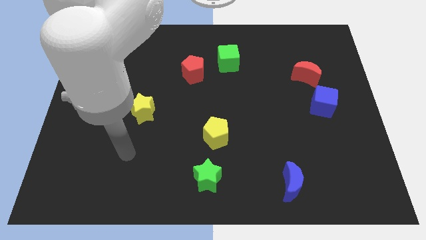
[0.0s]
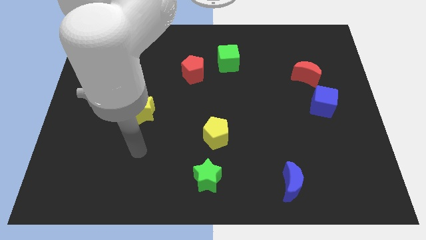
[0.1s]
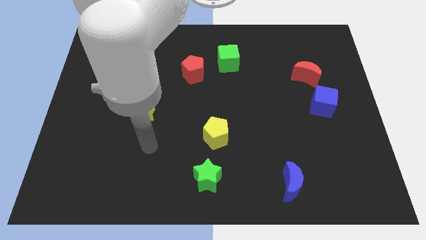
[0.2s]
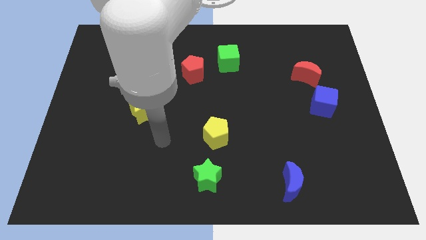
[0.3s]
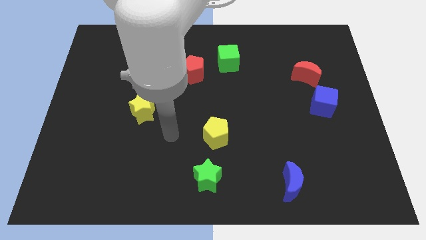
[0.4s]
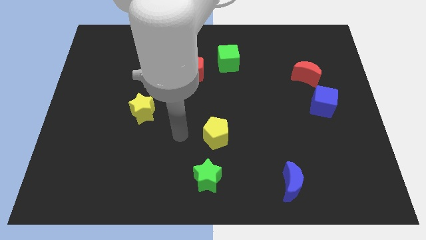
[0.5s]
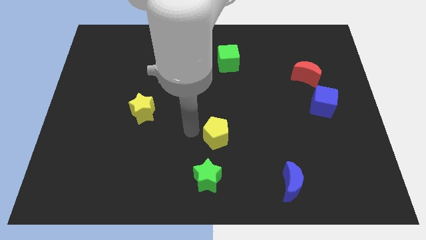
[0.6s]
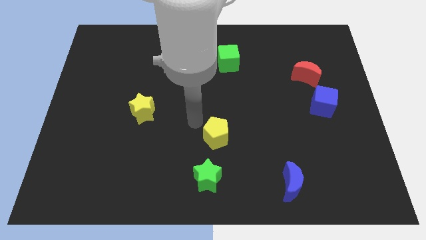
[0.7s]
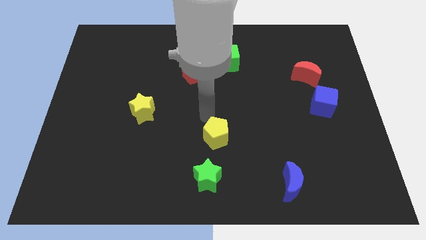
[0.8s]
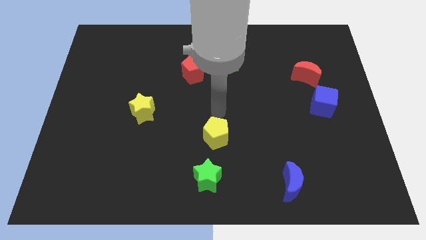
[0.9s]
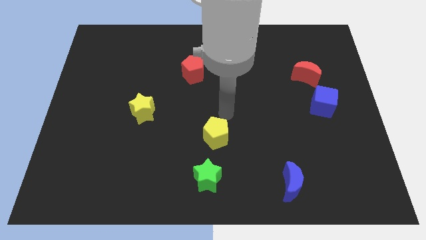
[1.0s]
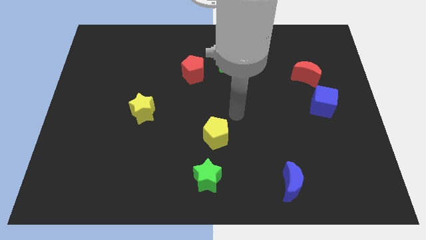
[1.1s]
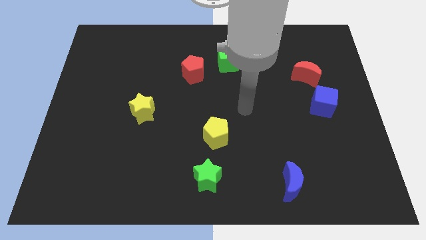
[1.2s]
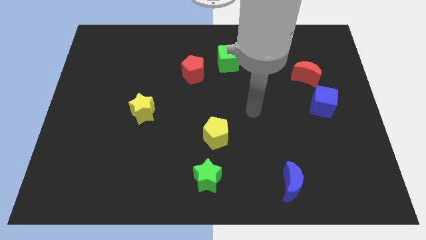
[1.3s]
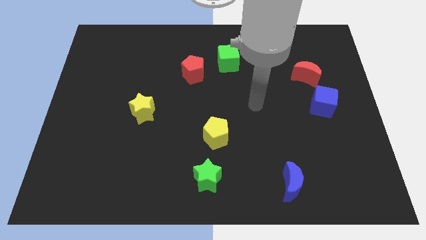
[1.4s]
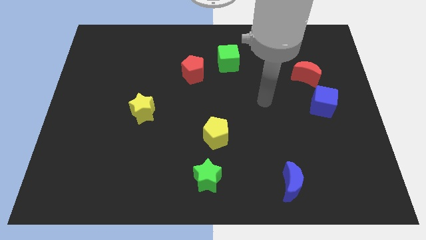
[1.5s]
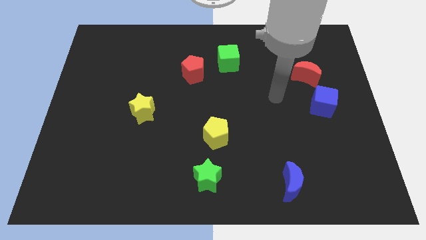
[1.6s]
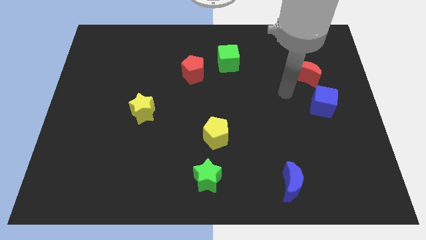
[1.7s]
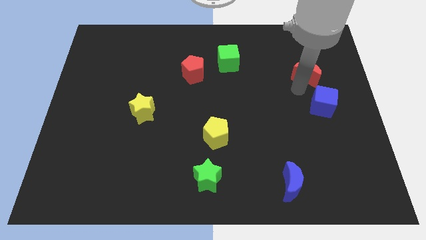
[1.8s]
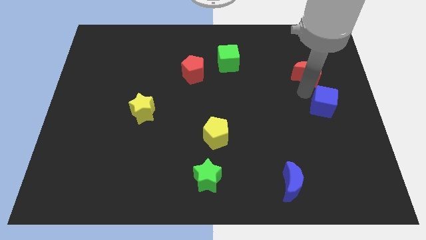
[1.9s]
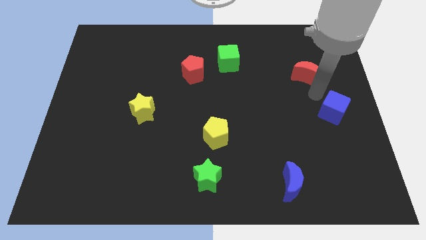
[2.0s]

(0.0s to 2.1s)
move the red moon away from the blue cube

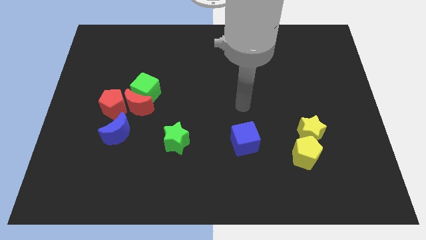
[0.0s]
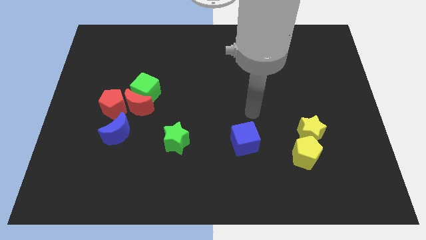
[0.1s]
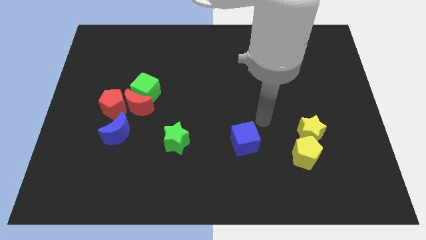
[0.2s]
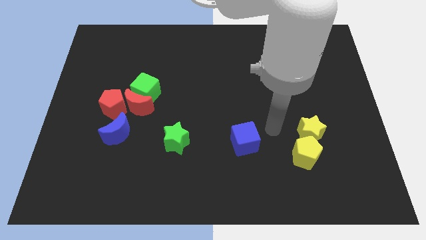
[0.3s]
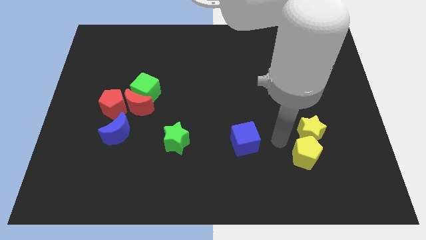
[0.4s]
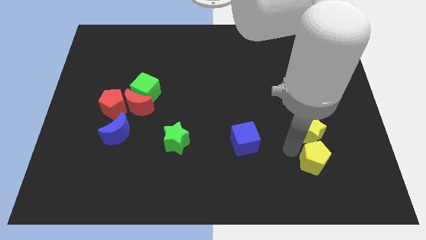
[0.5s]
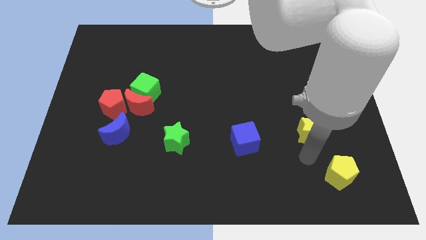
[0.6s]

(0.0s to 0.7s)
move the yellow star away from the yellow pentagon

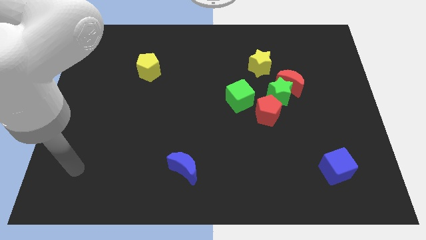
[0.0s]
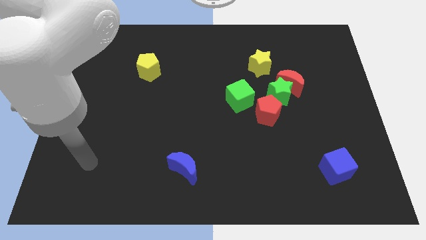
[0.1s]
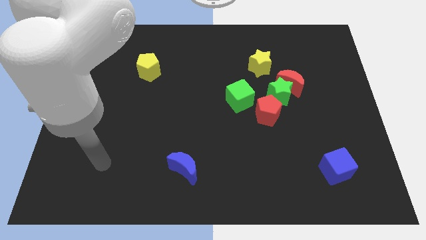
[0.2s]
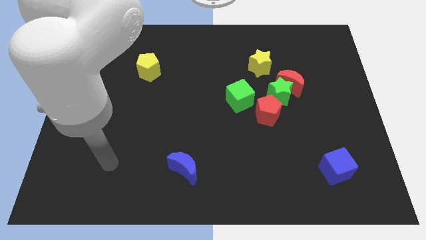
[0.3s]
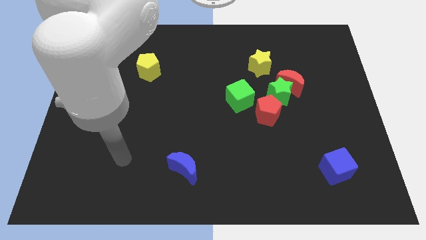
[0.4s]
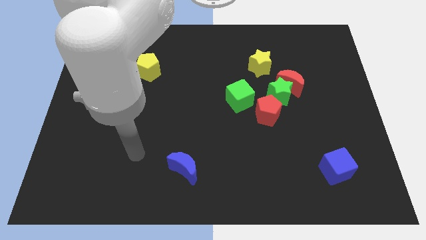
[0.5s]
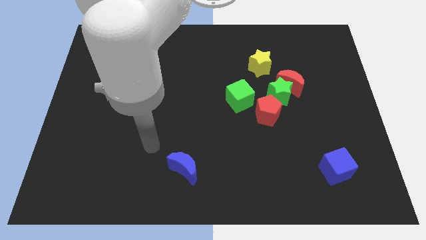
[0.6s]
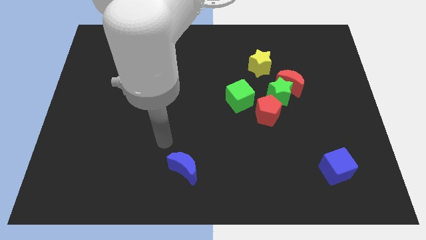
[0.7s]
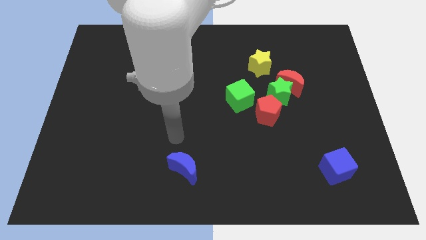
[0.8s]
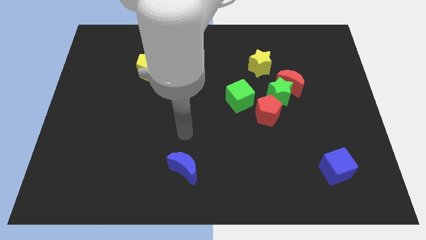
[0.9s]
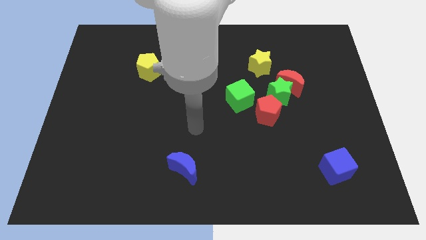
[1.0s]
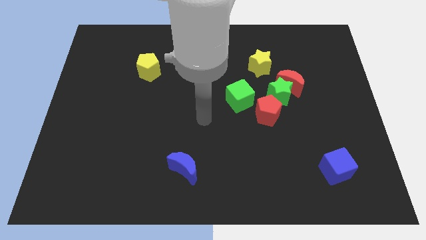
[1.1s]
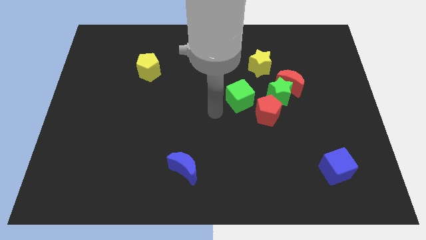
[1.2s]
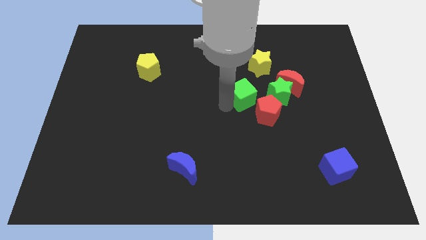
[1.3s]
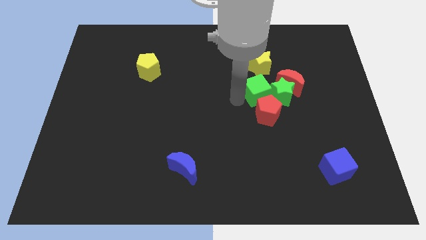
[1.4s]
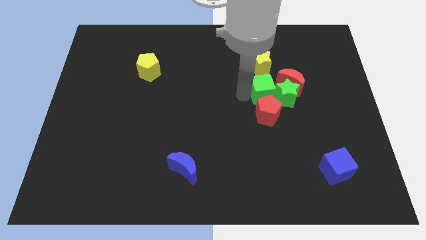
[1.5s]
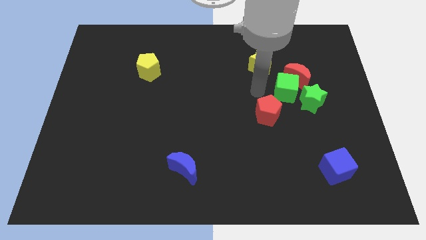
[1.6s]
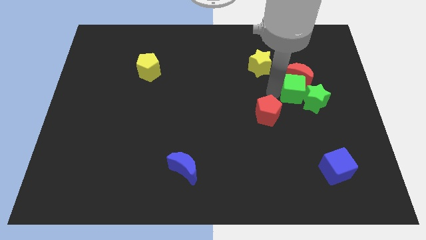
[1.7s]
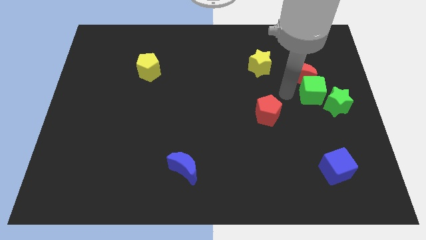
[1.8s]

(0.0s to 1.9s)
move the green star away from the group of blocks

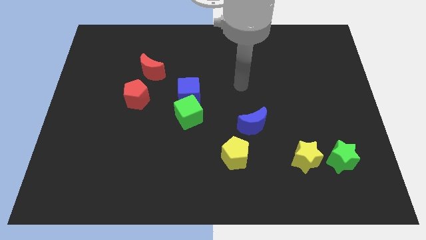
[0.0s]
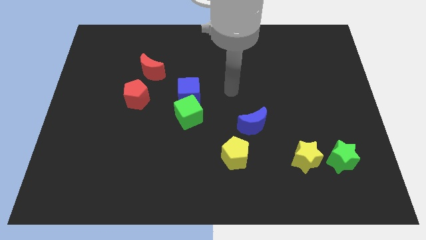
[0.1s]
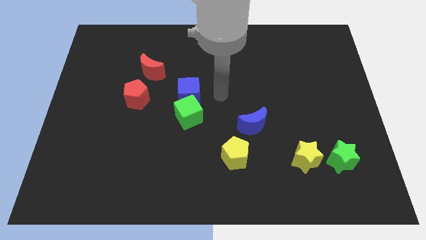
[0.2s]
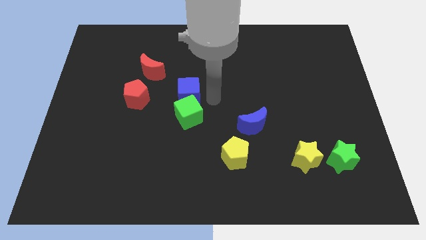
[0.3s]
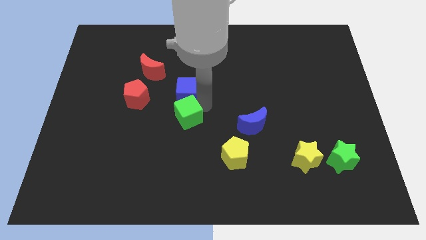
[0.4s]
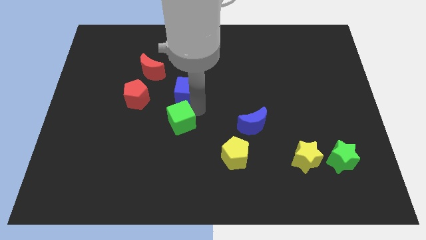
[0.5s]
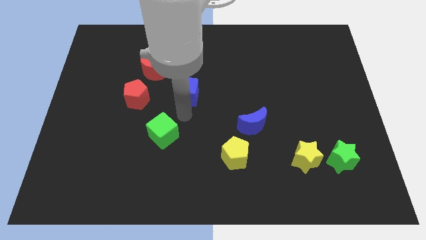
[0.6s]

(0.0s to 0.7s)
pull the blue cube apart from the green cube

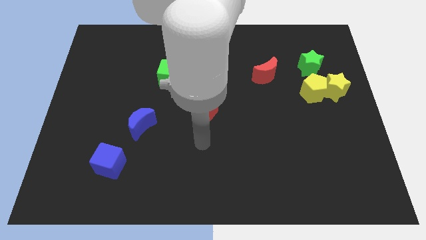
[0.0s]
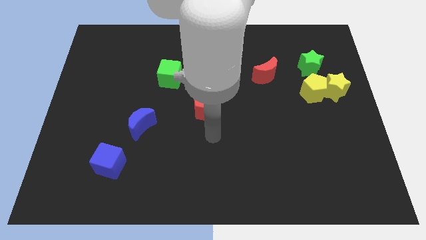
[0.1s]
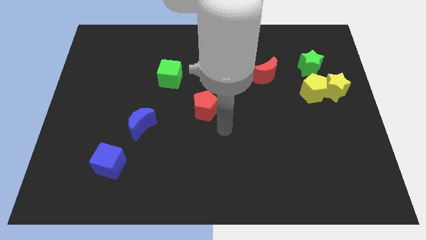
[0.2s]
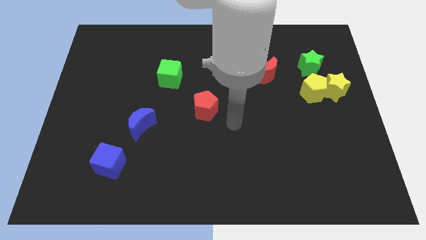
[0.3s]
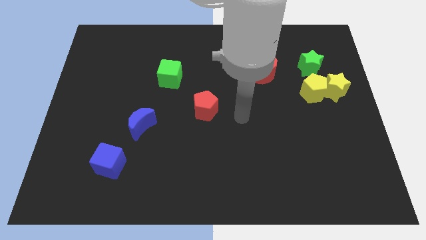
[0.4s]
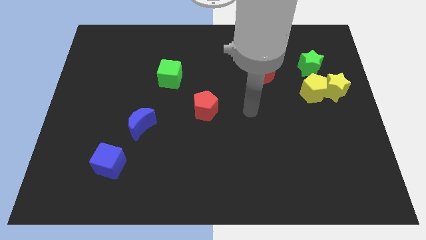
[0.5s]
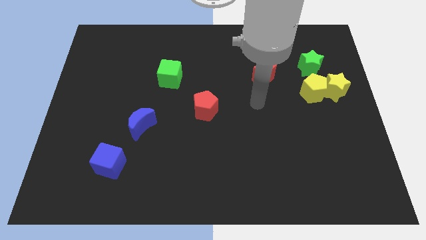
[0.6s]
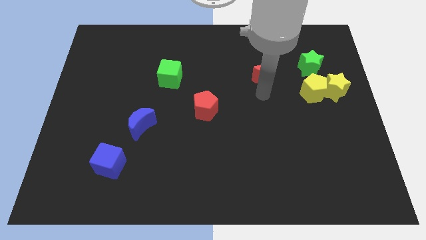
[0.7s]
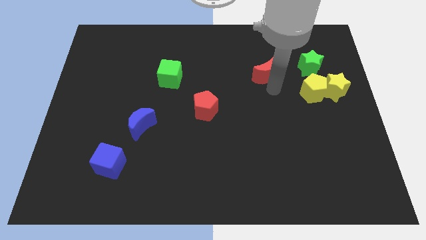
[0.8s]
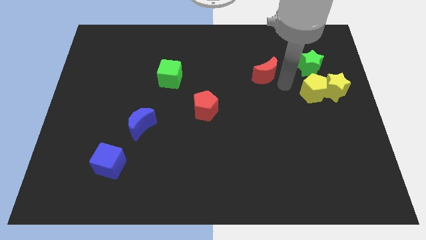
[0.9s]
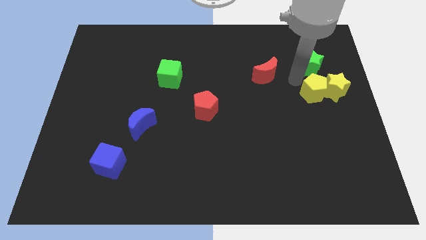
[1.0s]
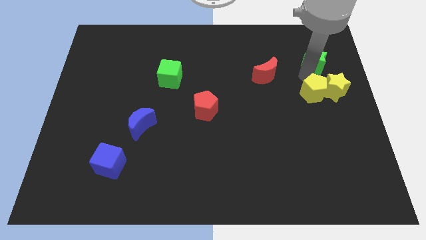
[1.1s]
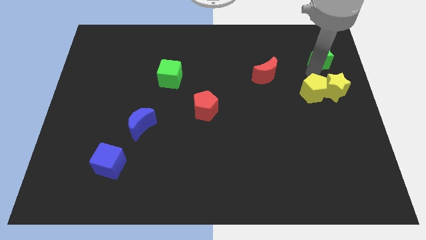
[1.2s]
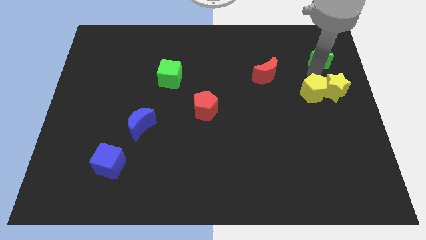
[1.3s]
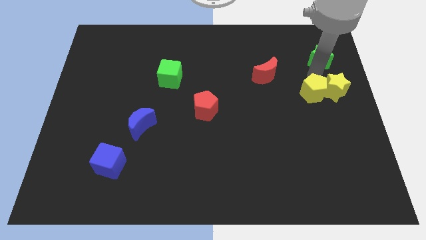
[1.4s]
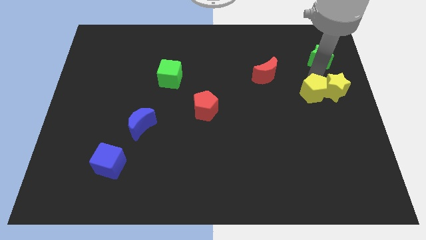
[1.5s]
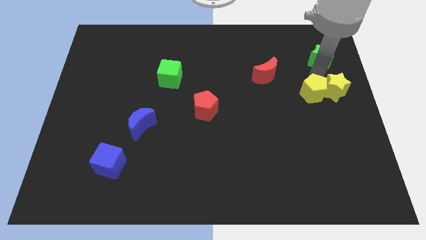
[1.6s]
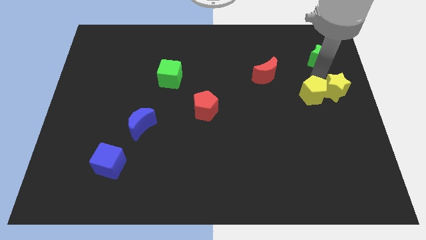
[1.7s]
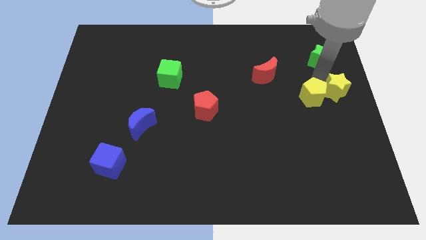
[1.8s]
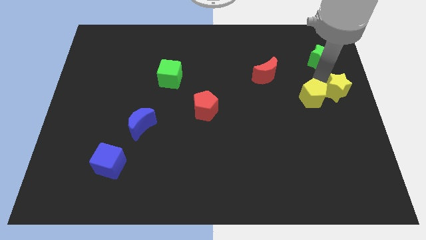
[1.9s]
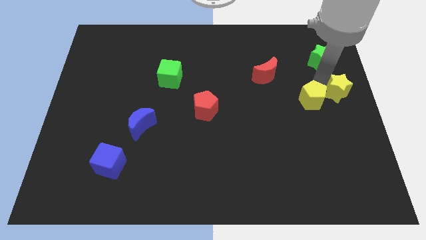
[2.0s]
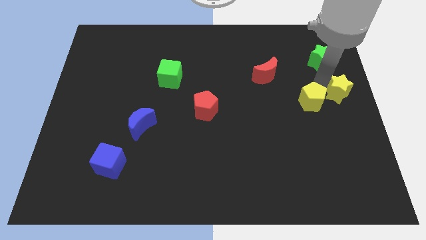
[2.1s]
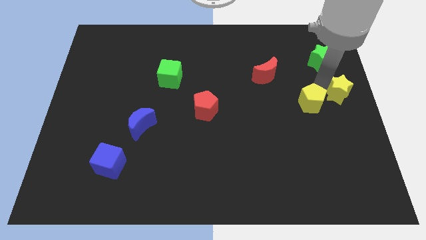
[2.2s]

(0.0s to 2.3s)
move the yellow pentagon away from the yellow star and green star

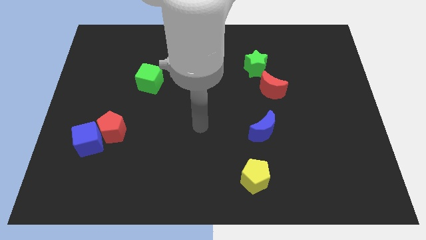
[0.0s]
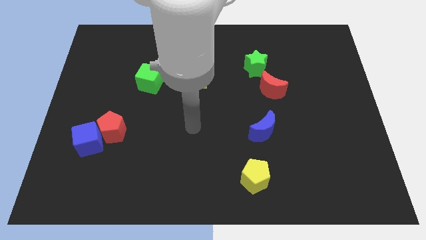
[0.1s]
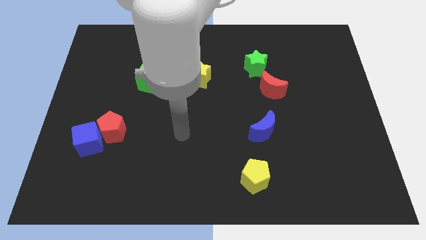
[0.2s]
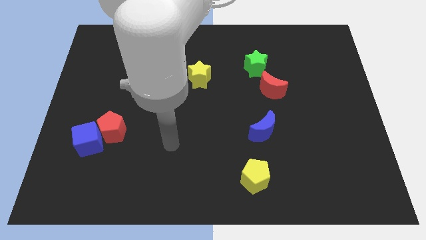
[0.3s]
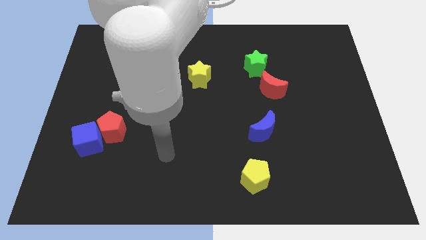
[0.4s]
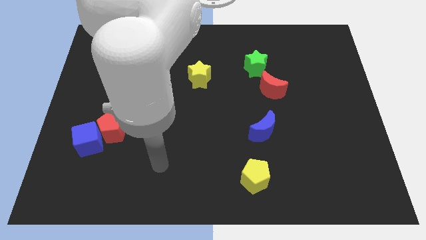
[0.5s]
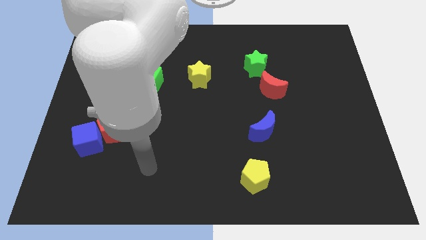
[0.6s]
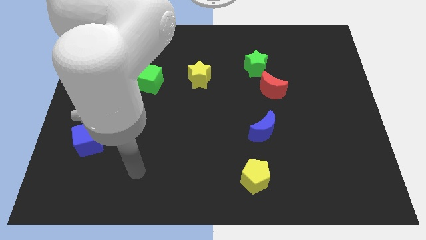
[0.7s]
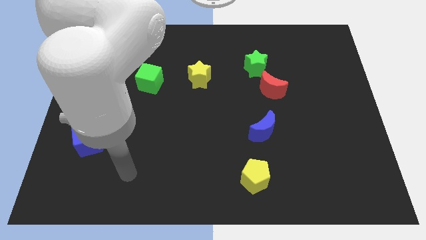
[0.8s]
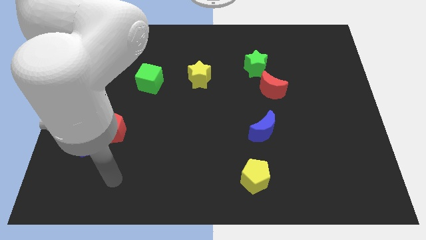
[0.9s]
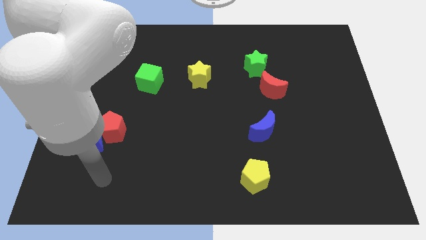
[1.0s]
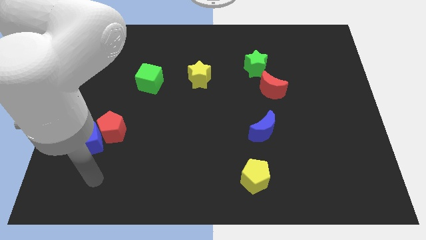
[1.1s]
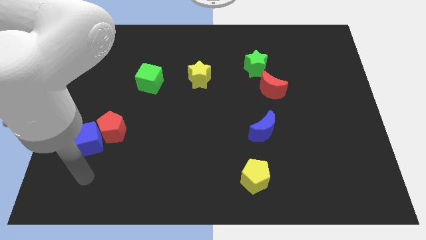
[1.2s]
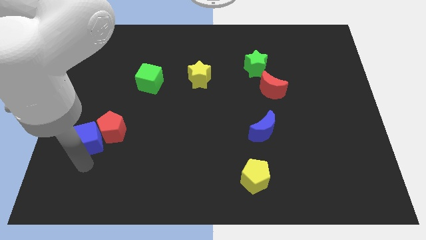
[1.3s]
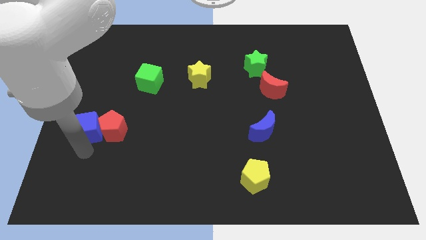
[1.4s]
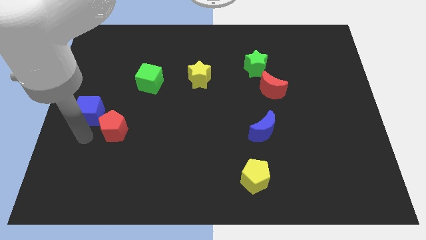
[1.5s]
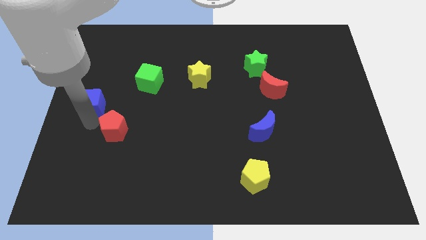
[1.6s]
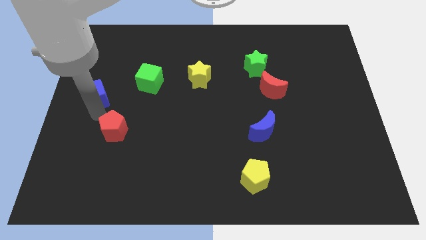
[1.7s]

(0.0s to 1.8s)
pull the red pentagon apart from the blue cube
